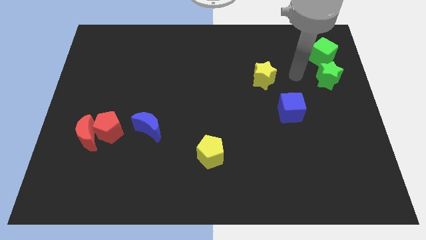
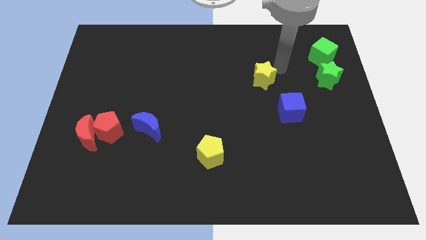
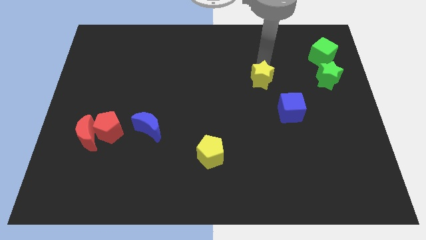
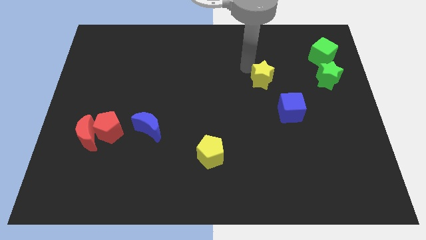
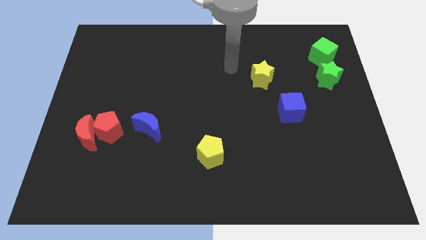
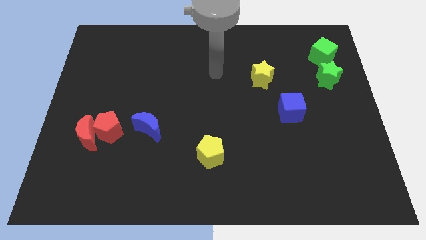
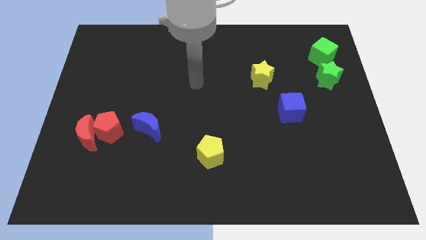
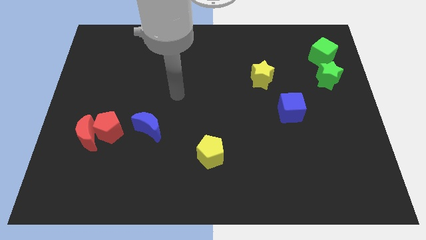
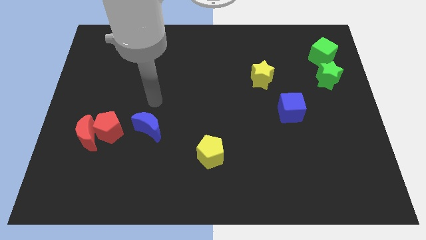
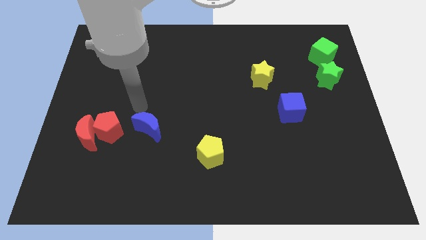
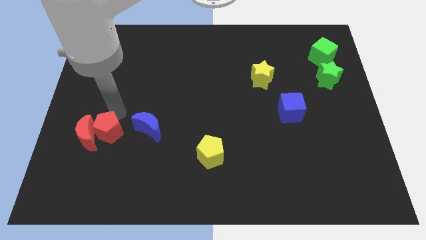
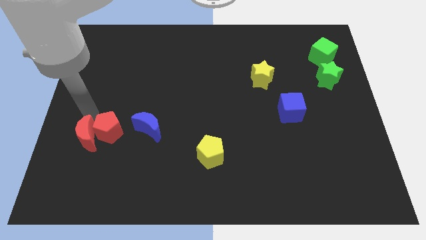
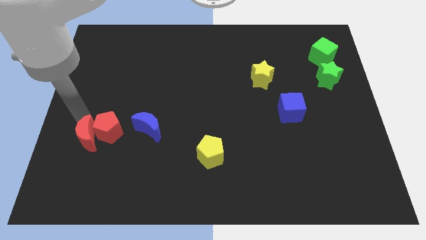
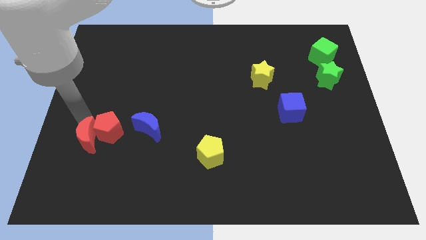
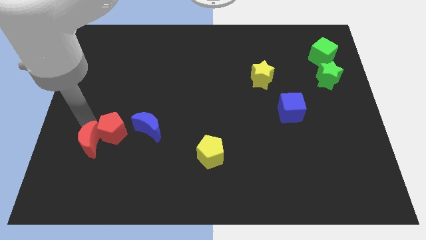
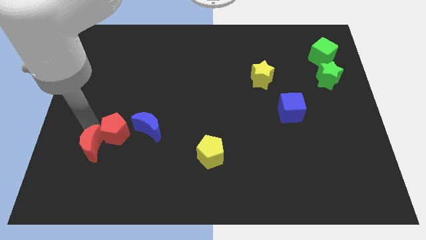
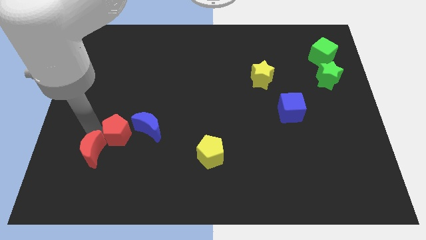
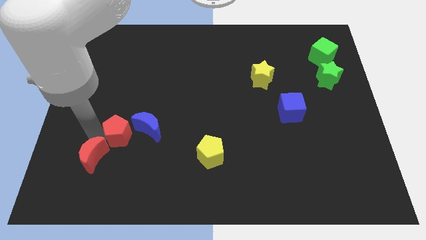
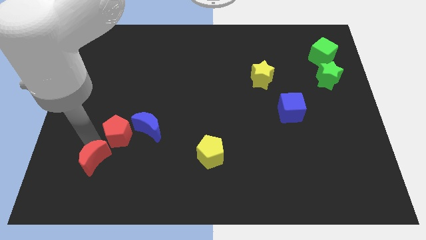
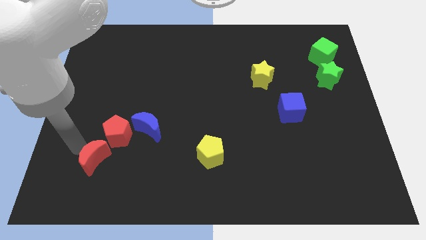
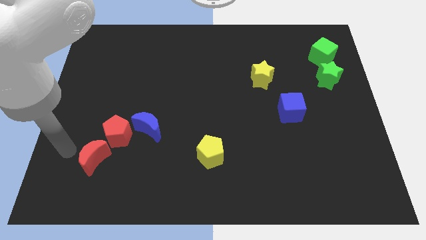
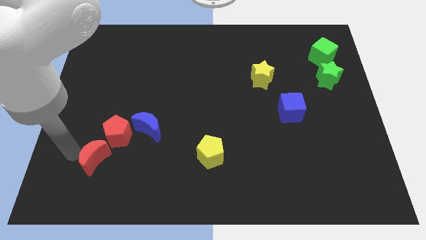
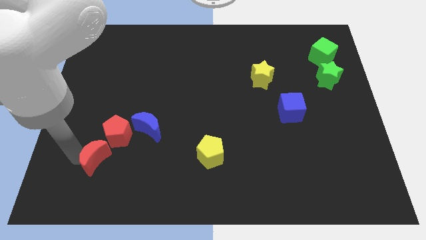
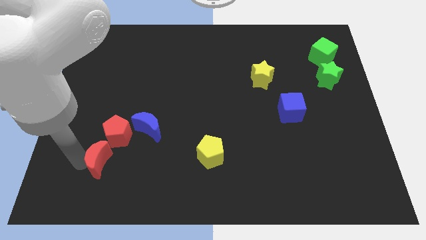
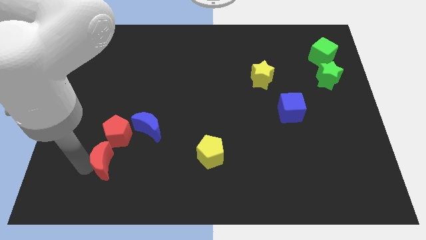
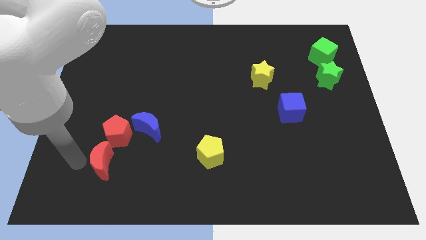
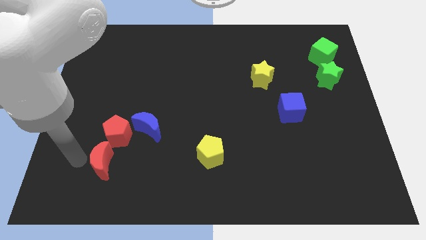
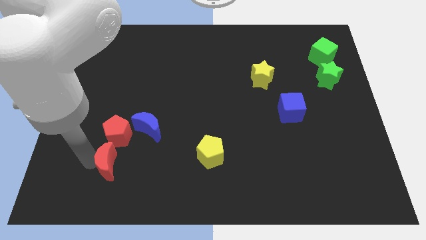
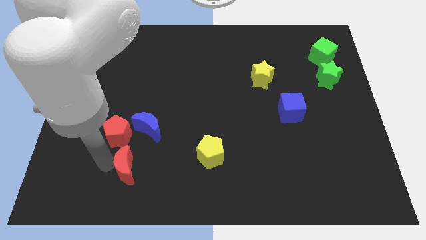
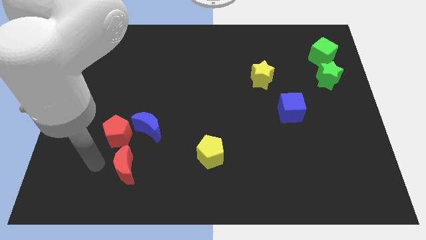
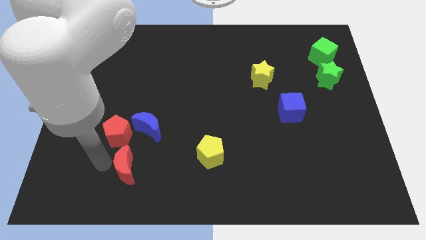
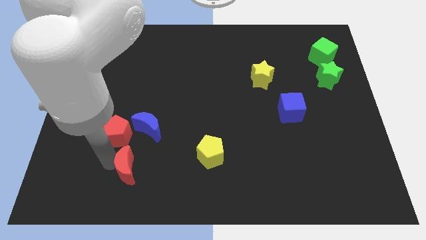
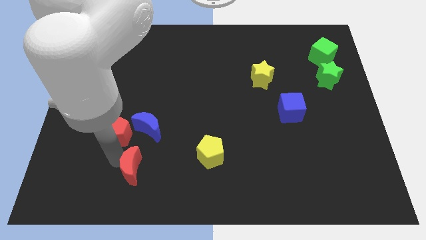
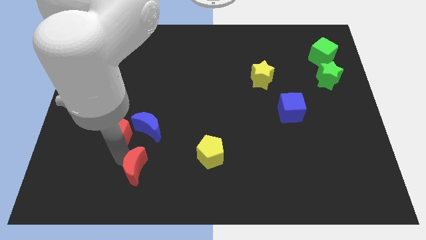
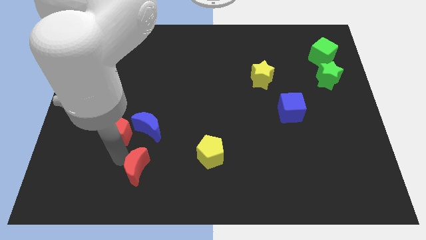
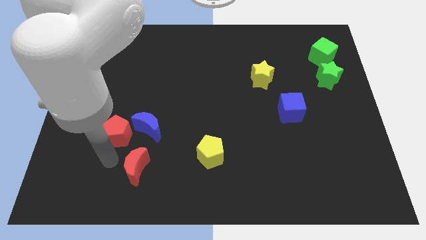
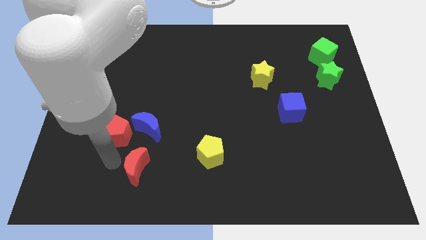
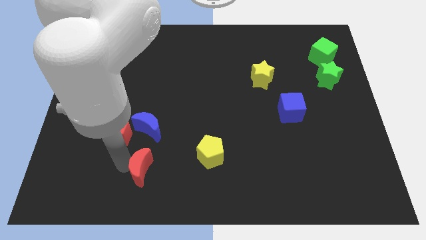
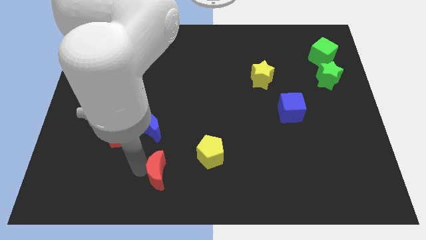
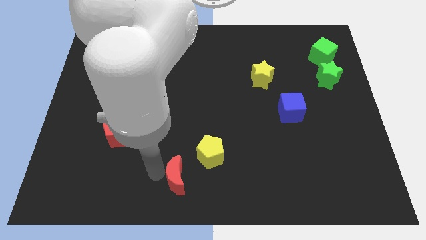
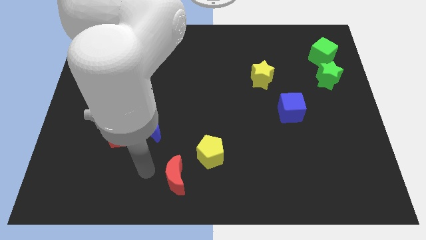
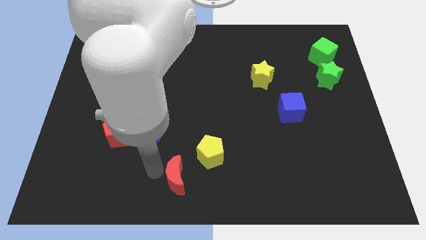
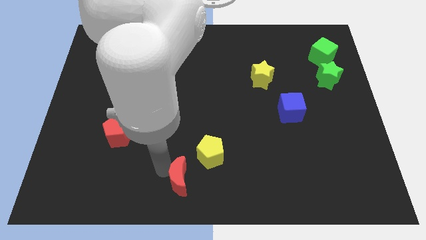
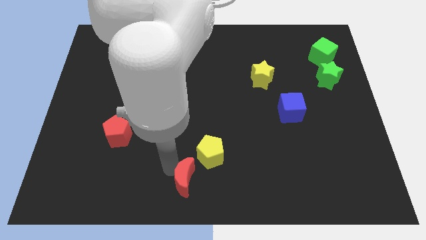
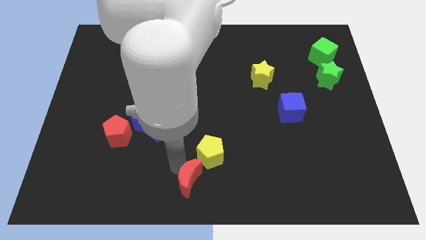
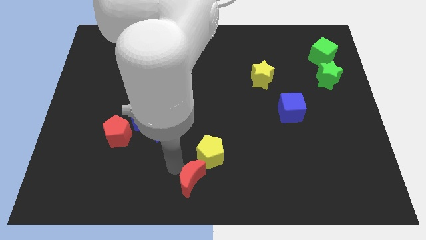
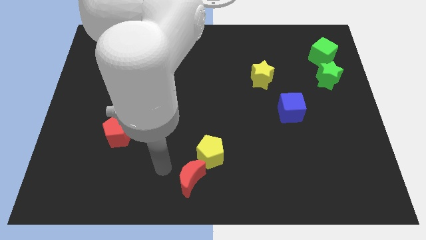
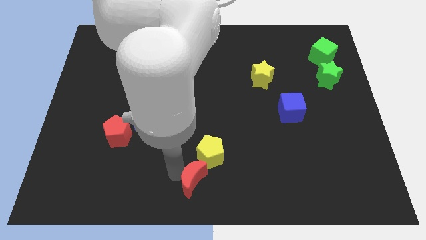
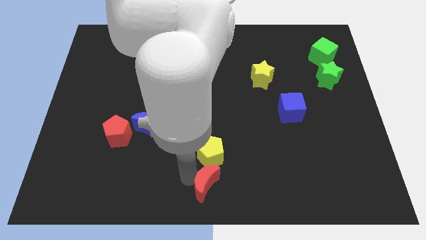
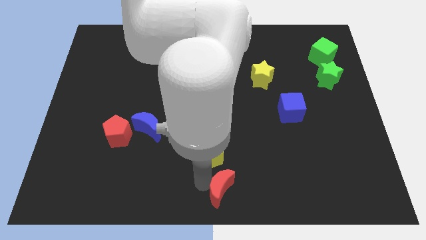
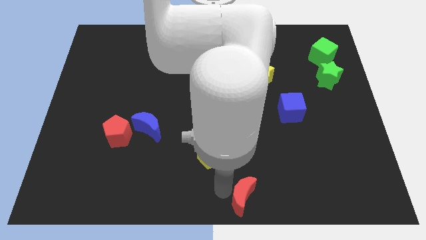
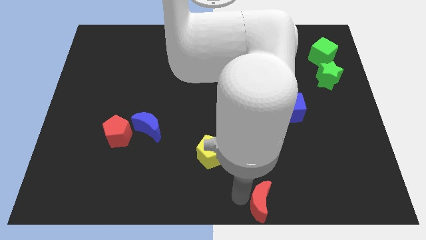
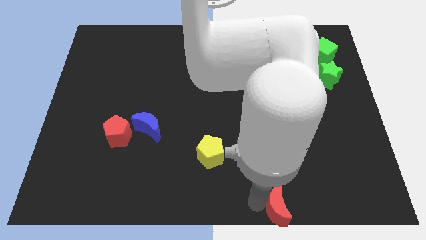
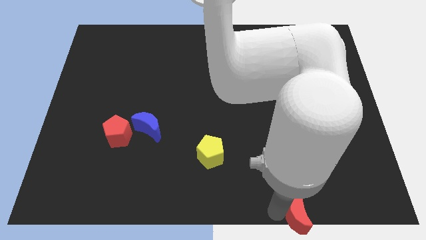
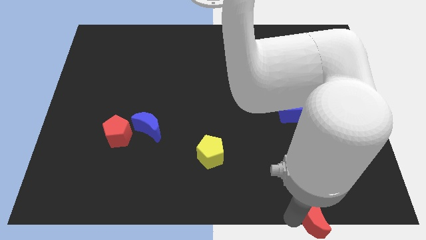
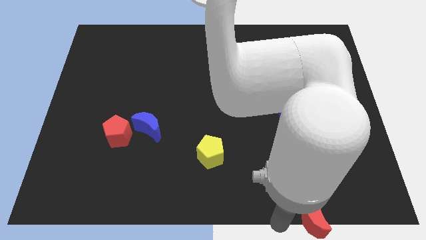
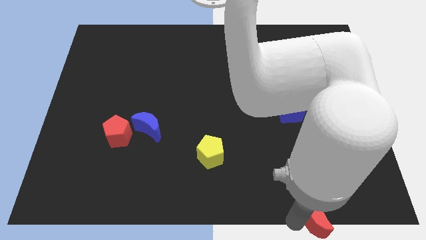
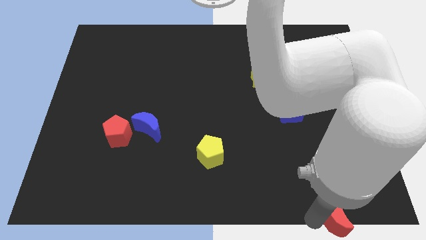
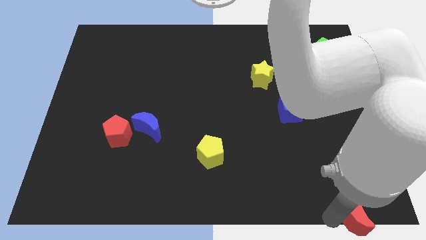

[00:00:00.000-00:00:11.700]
put the red moon to the bottom right corner

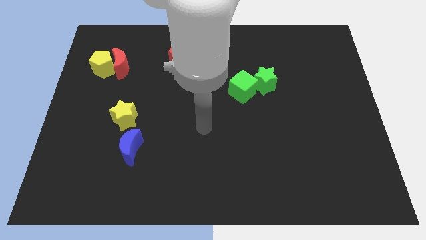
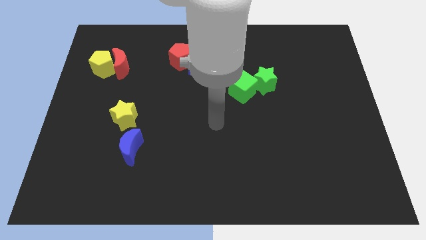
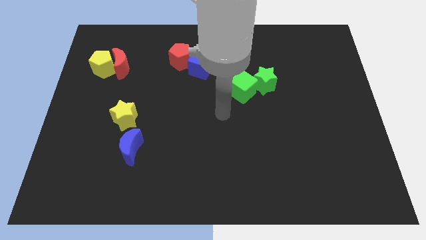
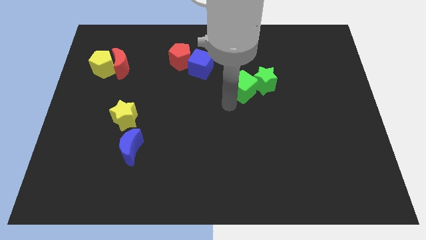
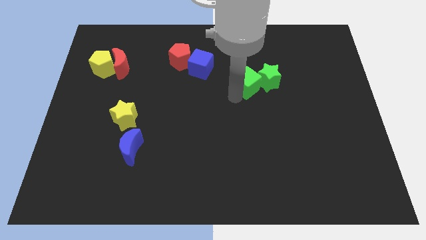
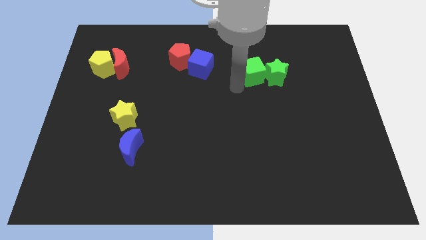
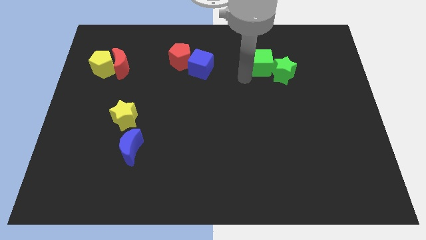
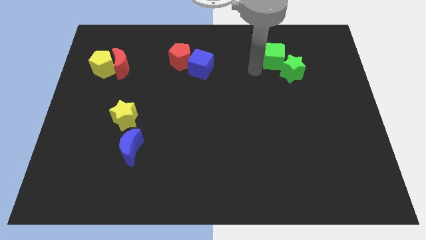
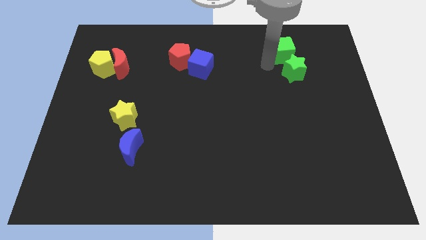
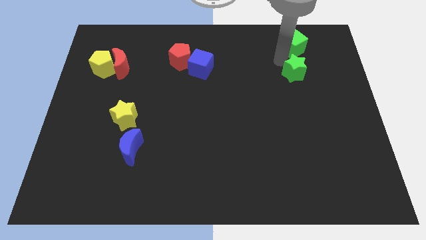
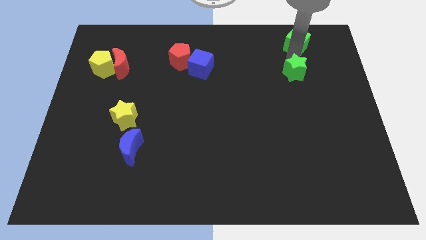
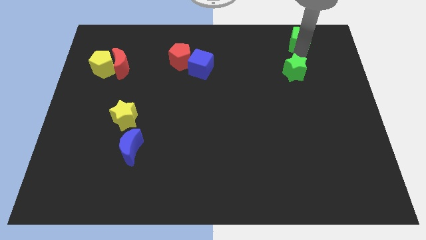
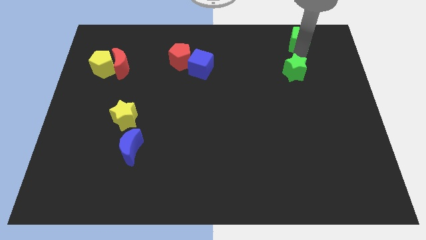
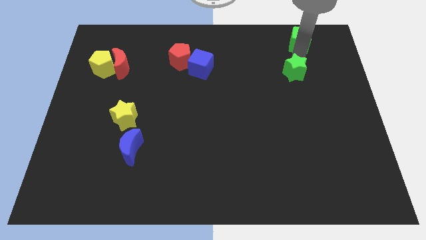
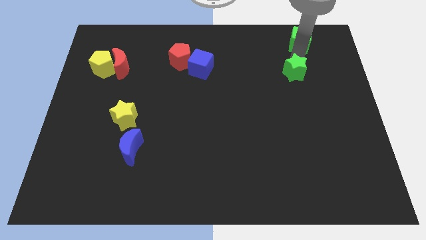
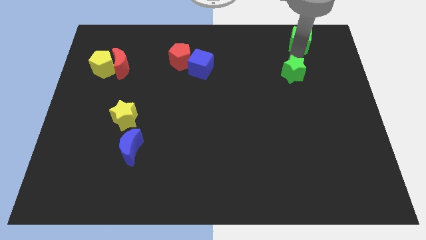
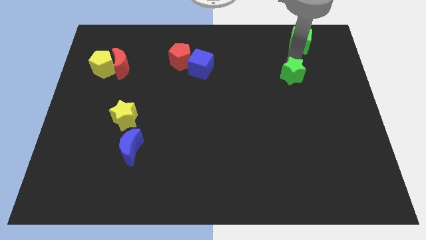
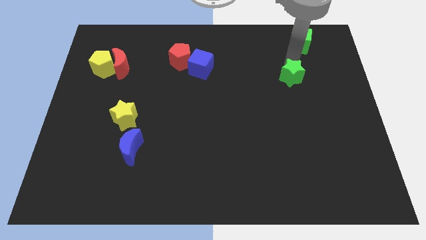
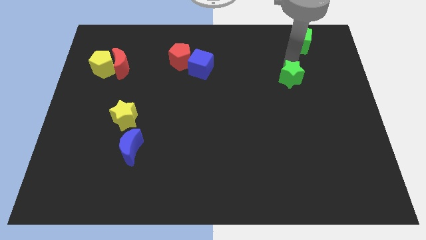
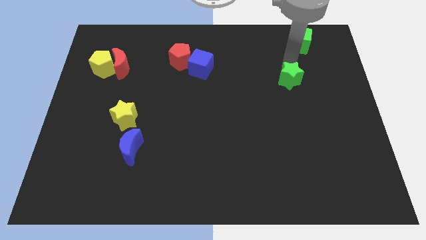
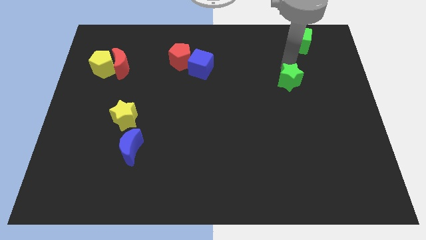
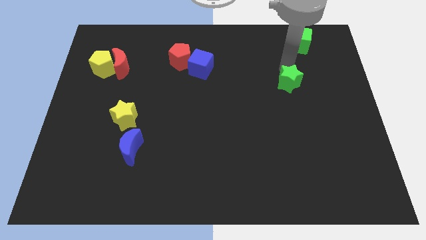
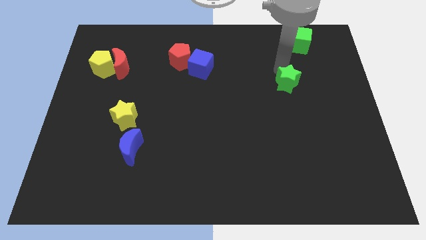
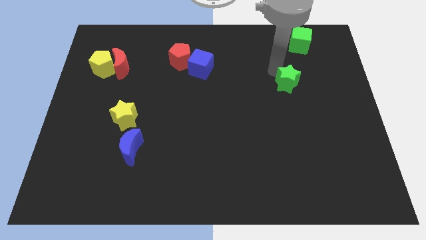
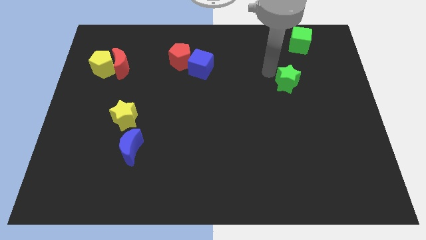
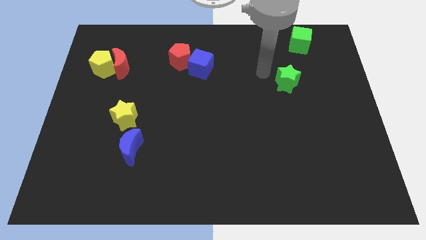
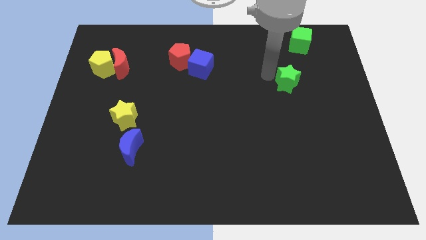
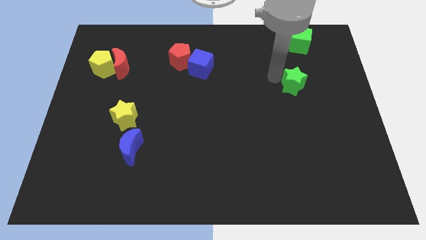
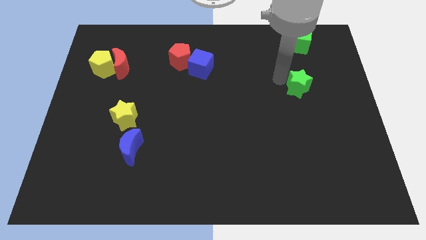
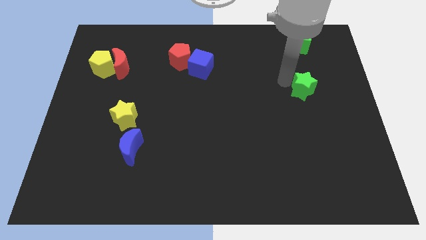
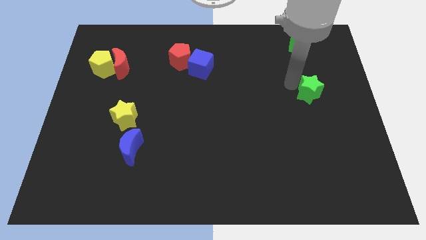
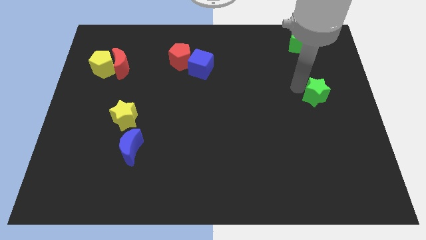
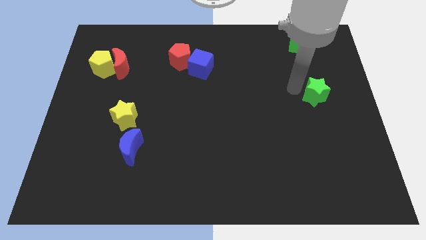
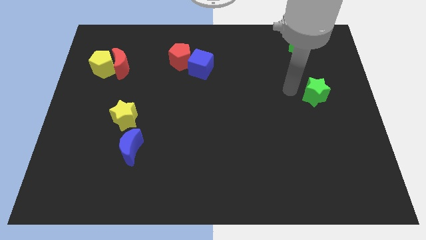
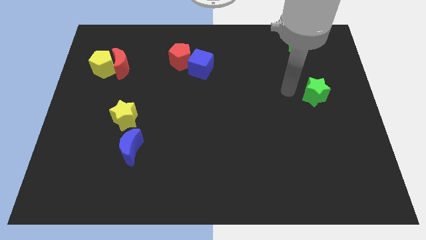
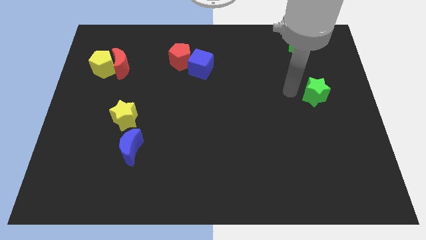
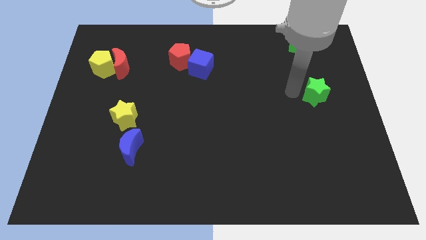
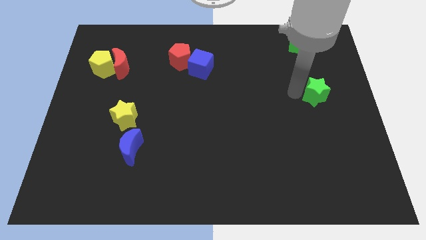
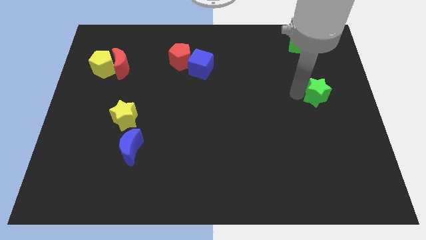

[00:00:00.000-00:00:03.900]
put the green star to the right side
